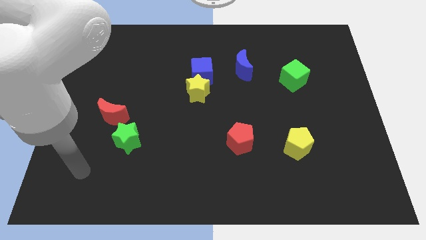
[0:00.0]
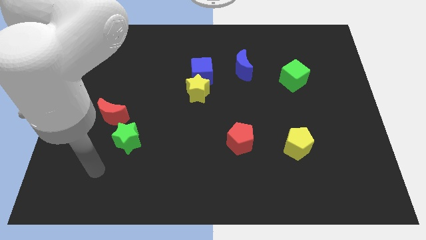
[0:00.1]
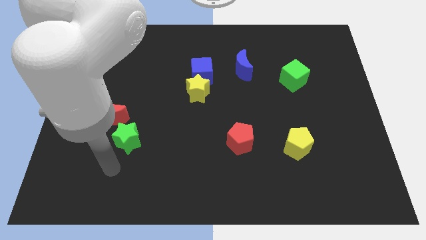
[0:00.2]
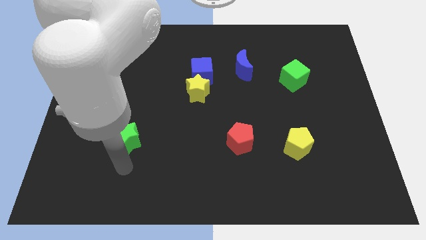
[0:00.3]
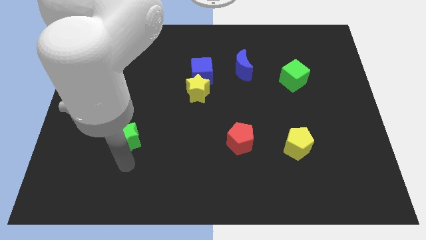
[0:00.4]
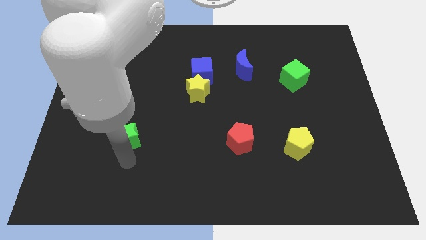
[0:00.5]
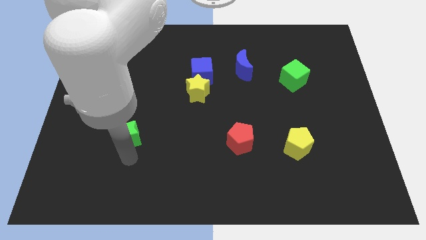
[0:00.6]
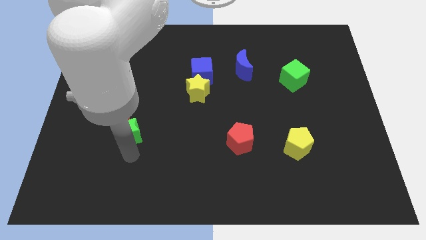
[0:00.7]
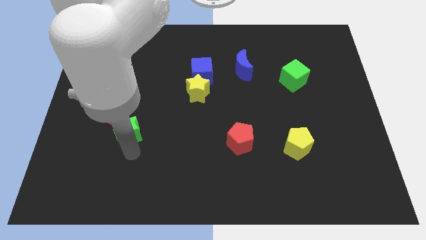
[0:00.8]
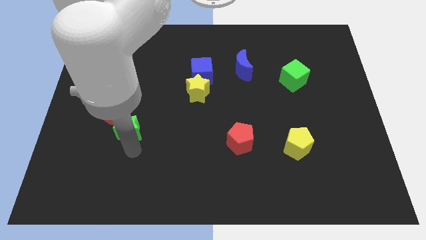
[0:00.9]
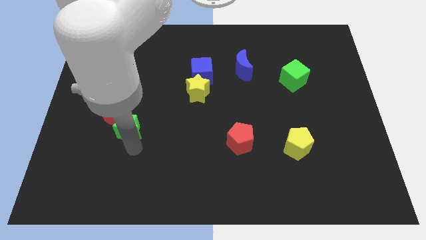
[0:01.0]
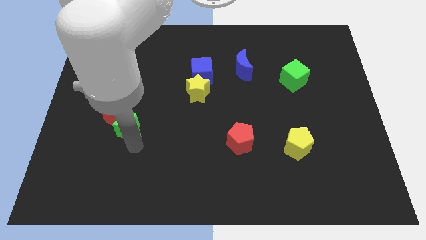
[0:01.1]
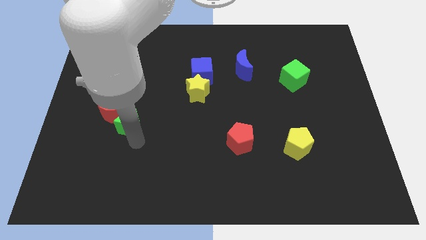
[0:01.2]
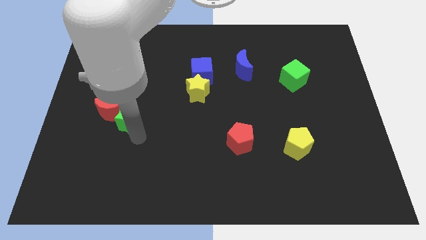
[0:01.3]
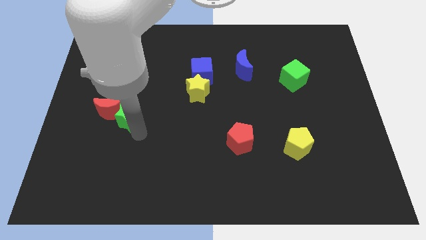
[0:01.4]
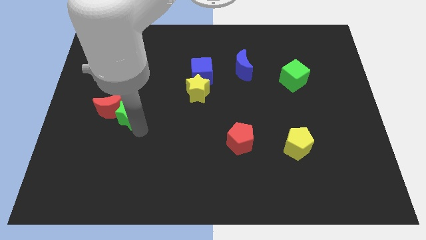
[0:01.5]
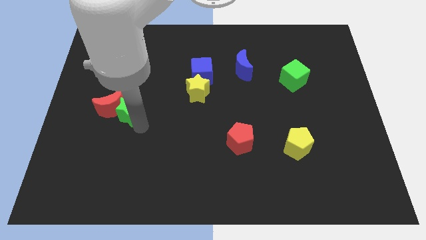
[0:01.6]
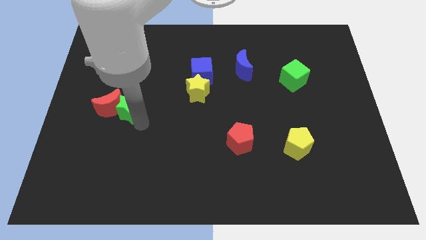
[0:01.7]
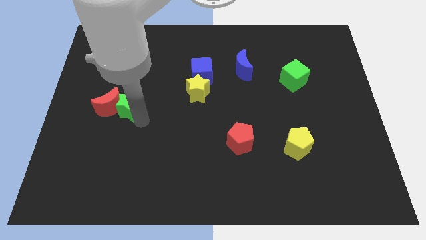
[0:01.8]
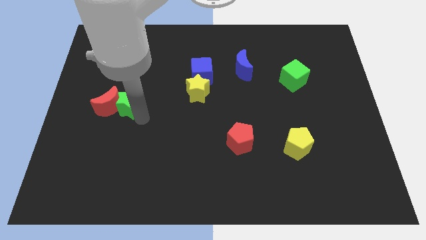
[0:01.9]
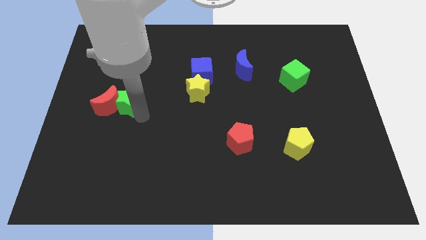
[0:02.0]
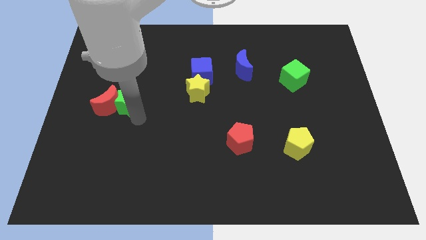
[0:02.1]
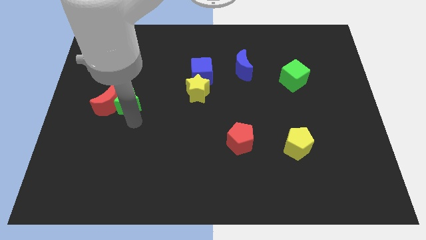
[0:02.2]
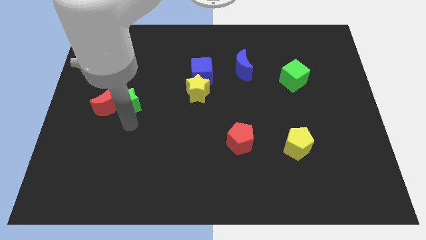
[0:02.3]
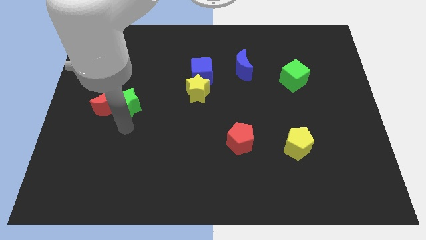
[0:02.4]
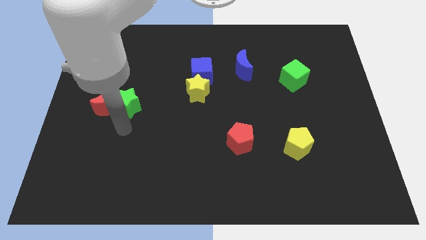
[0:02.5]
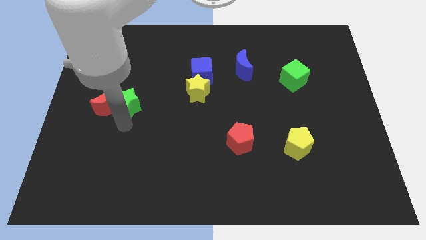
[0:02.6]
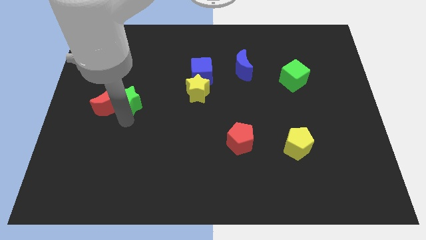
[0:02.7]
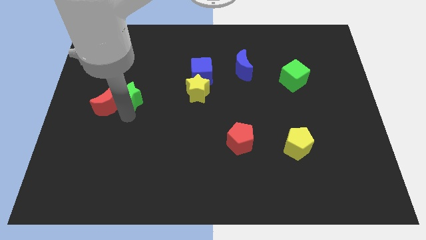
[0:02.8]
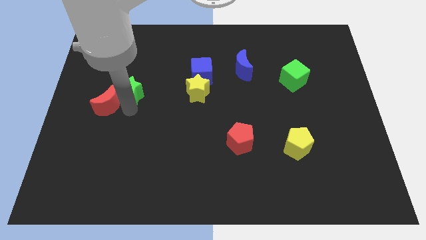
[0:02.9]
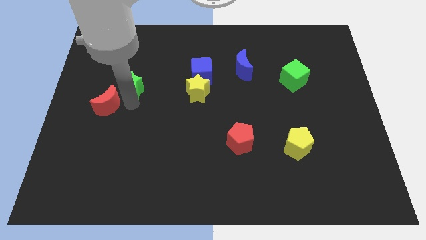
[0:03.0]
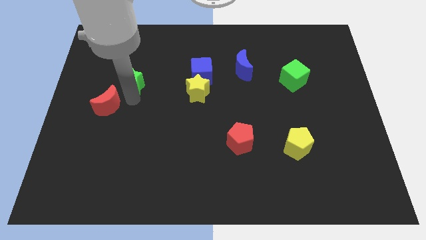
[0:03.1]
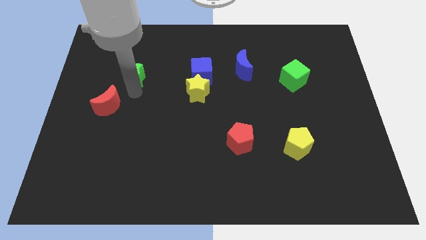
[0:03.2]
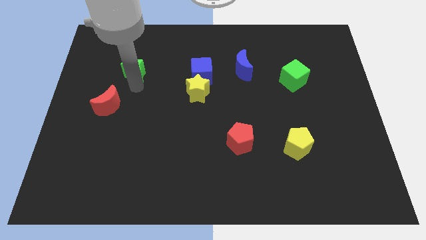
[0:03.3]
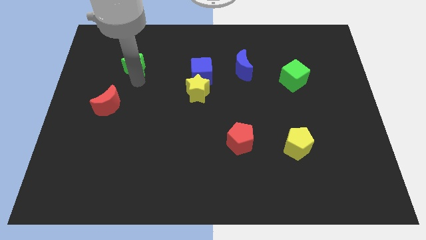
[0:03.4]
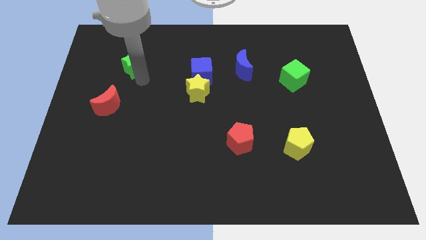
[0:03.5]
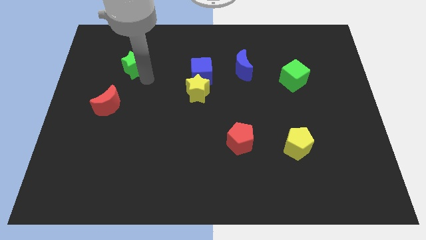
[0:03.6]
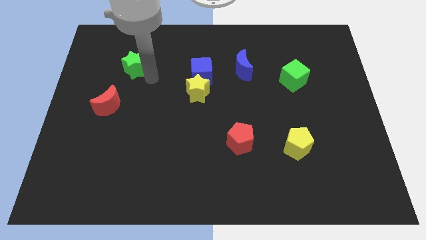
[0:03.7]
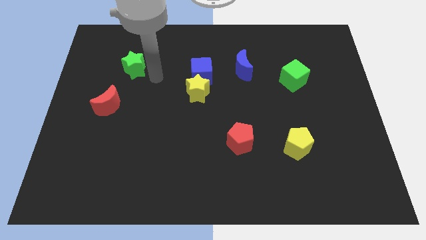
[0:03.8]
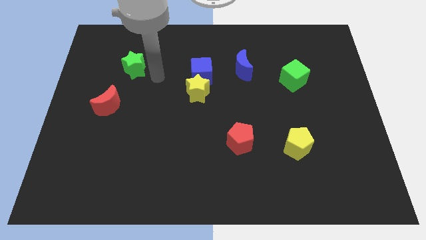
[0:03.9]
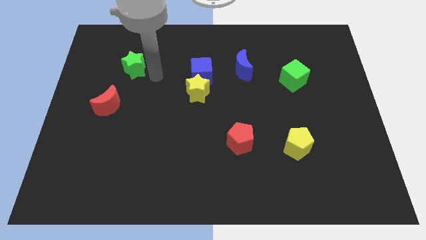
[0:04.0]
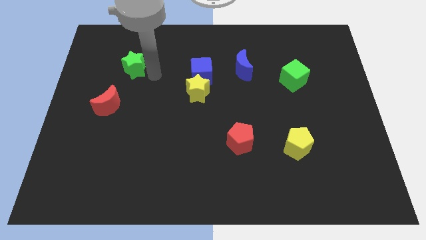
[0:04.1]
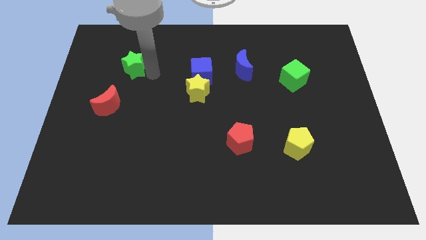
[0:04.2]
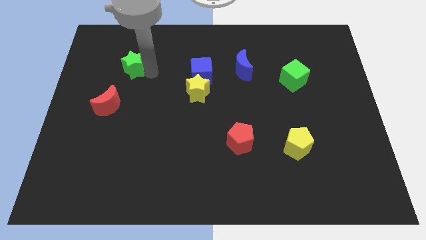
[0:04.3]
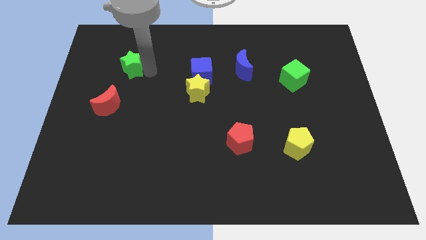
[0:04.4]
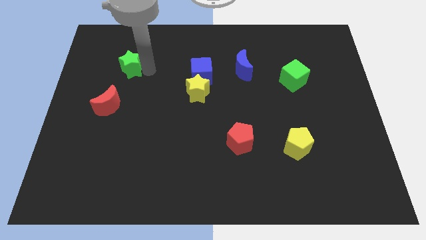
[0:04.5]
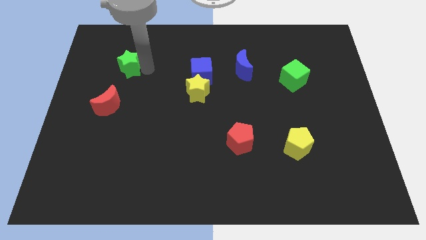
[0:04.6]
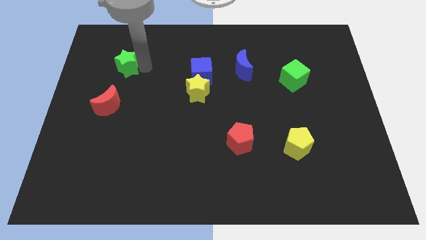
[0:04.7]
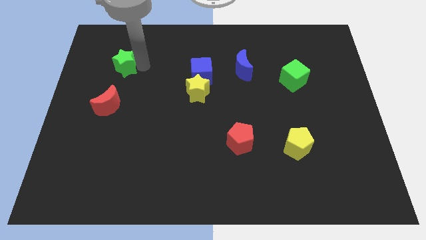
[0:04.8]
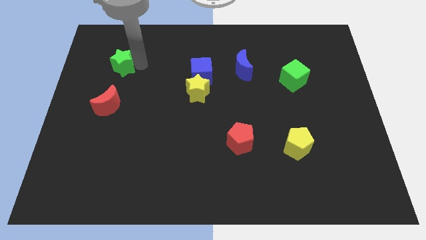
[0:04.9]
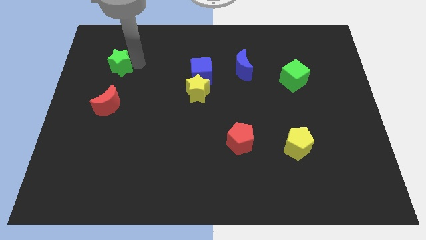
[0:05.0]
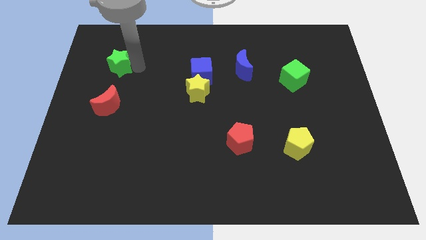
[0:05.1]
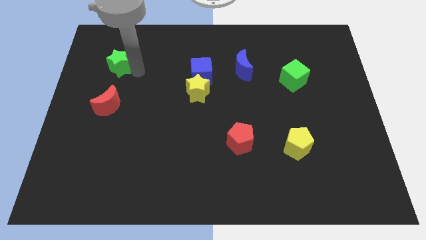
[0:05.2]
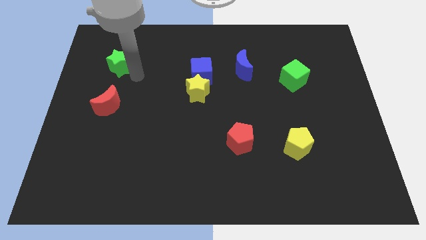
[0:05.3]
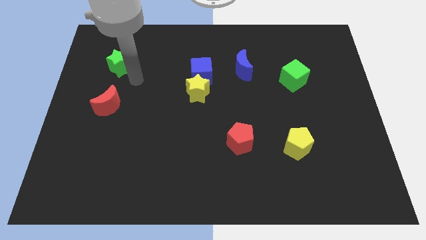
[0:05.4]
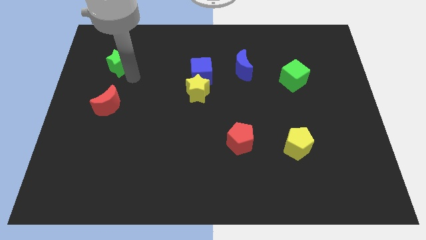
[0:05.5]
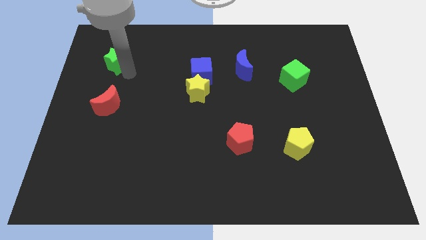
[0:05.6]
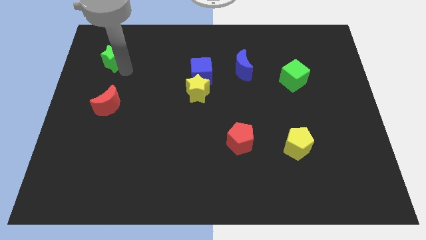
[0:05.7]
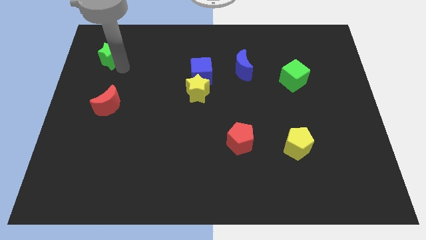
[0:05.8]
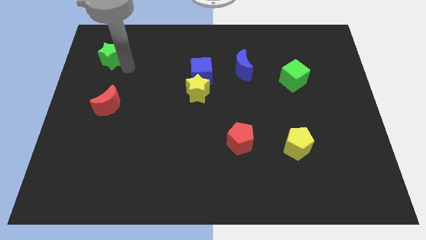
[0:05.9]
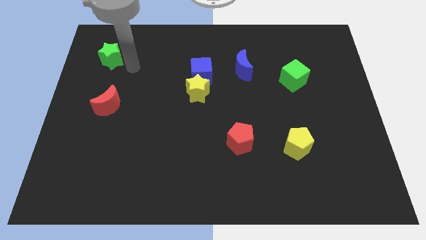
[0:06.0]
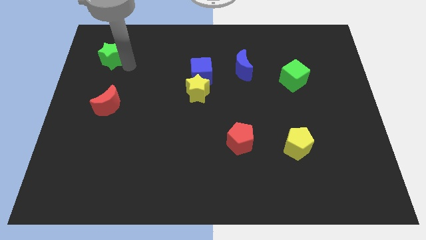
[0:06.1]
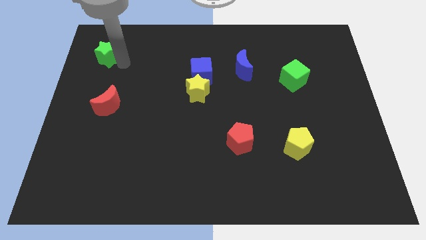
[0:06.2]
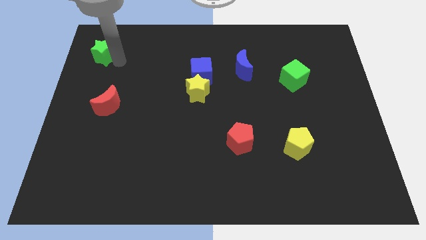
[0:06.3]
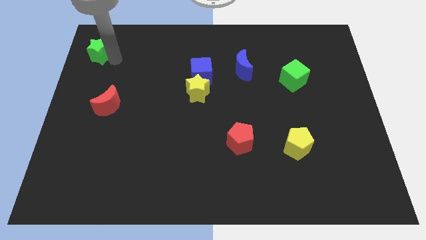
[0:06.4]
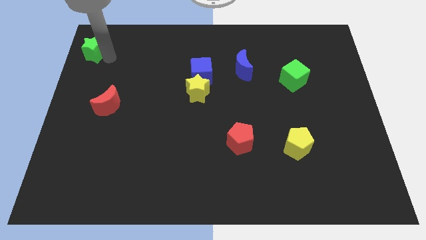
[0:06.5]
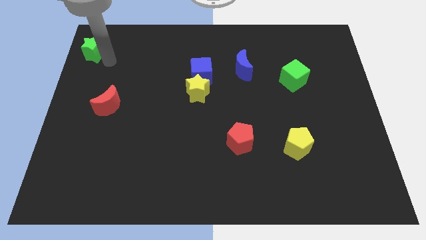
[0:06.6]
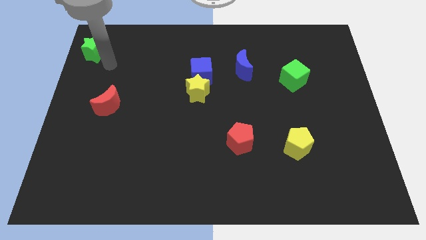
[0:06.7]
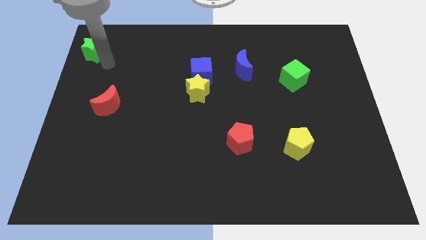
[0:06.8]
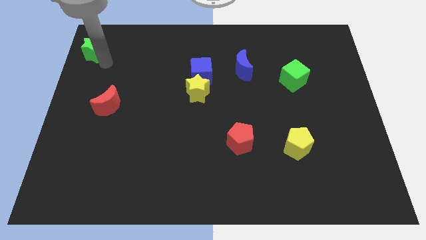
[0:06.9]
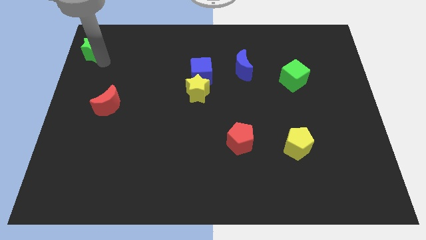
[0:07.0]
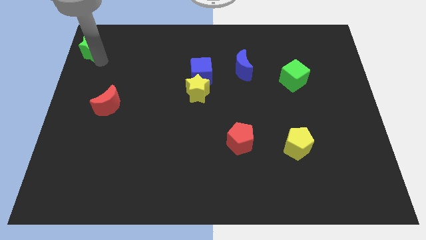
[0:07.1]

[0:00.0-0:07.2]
push the green star to the top left of the board
